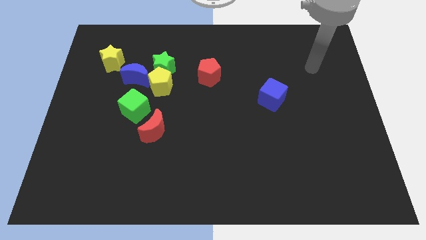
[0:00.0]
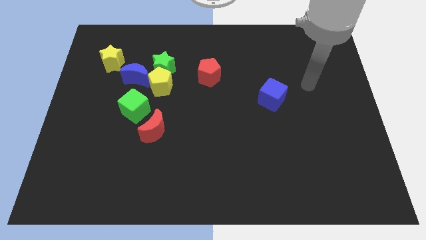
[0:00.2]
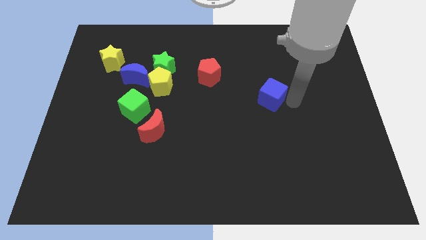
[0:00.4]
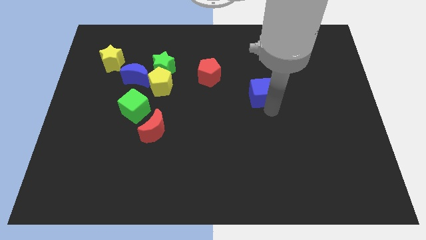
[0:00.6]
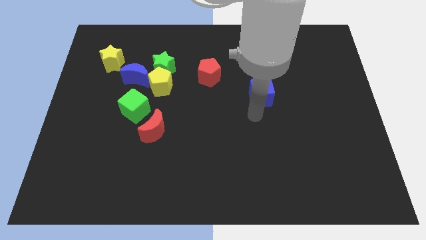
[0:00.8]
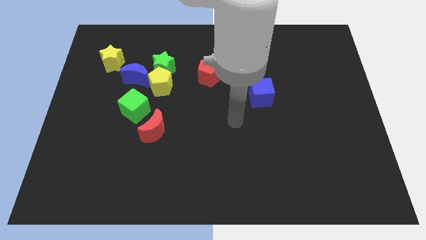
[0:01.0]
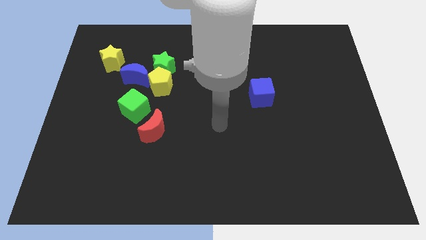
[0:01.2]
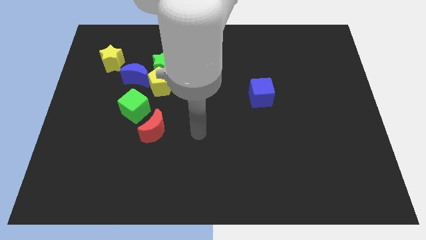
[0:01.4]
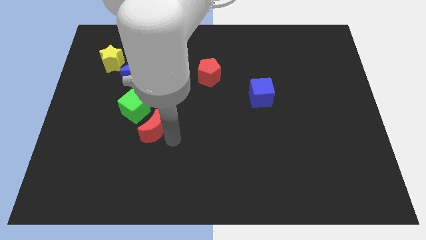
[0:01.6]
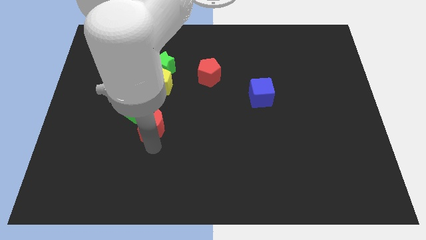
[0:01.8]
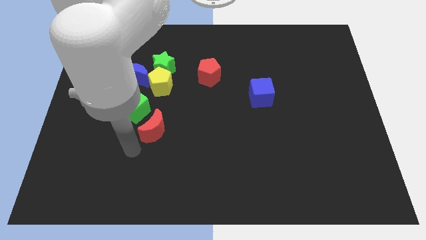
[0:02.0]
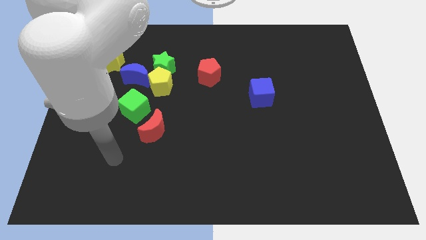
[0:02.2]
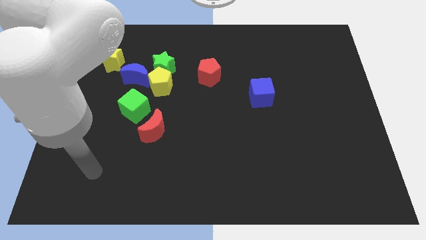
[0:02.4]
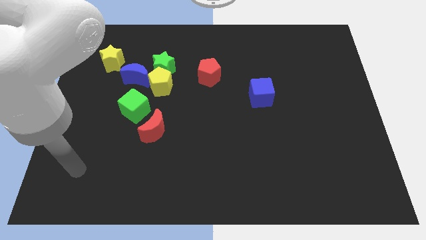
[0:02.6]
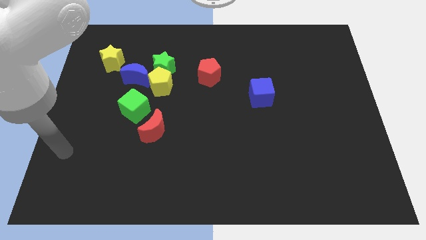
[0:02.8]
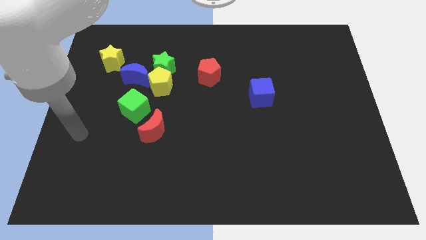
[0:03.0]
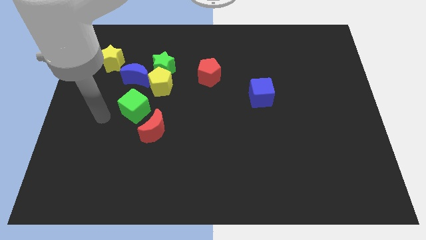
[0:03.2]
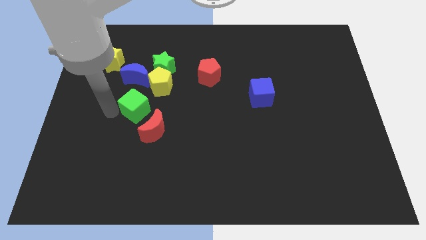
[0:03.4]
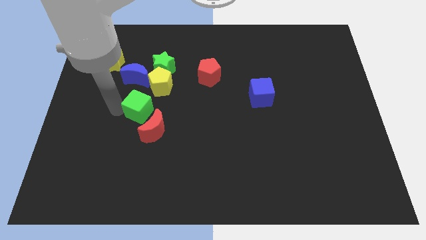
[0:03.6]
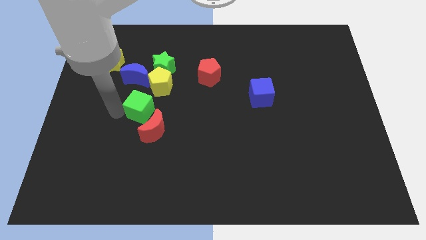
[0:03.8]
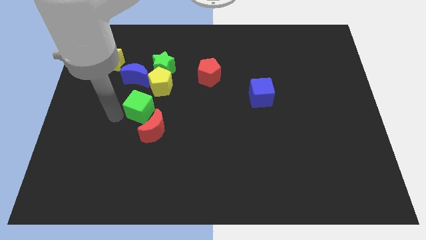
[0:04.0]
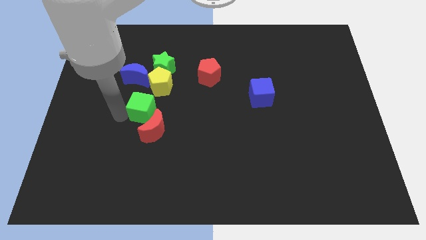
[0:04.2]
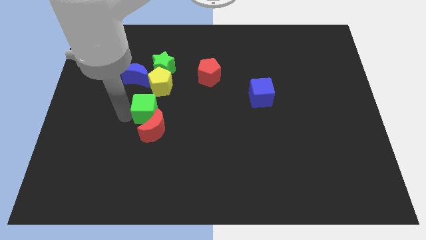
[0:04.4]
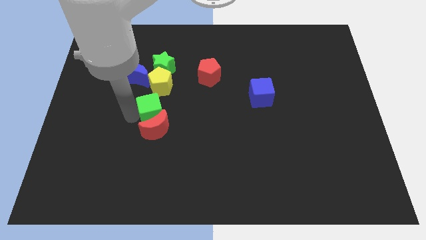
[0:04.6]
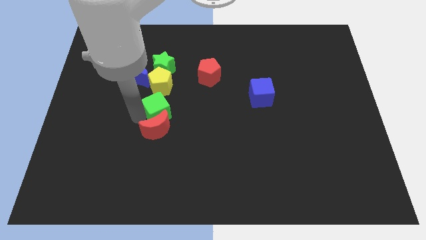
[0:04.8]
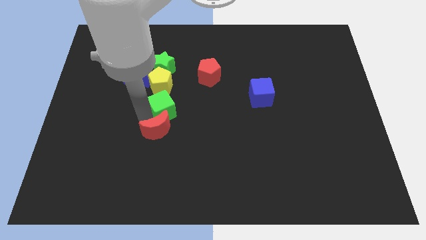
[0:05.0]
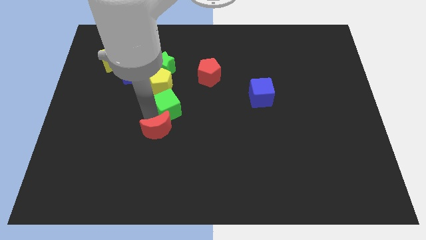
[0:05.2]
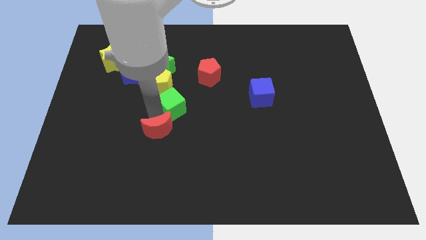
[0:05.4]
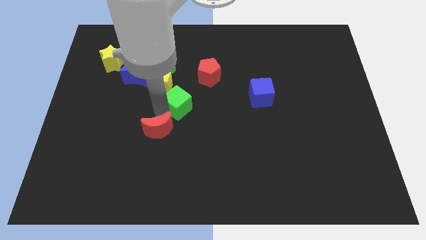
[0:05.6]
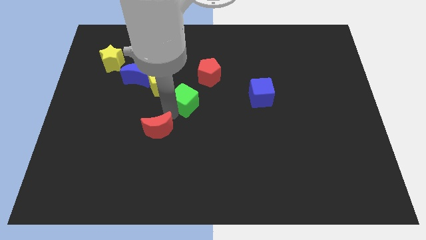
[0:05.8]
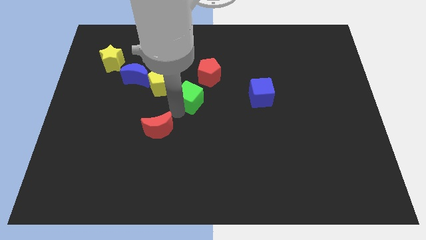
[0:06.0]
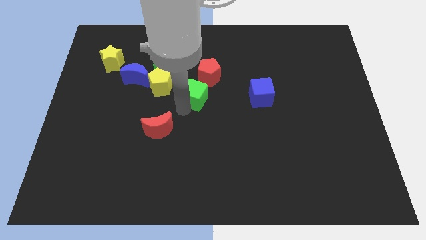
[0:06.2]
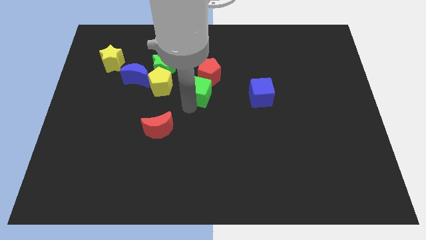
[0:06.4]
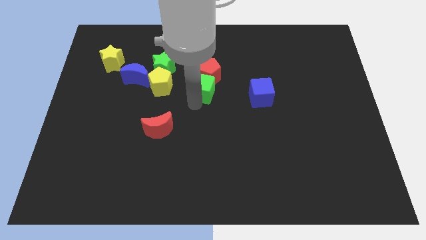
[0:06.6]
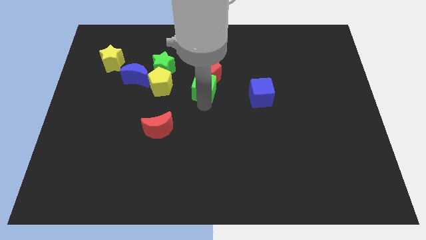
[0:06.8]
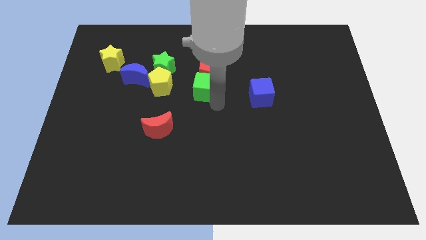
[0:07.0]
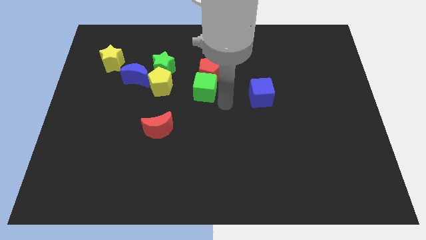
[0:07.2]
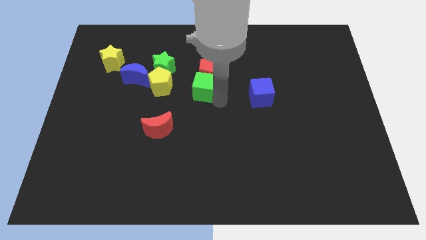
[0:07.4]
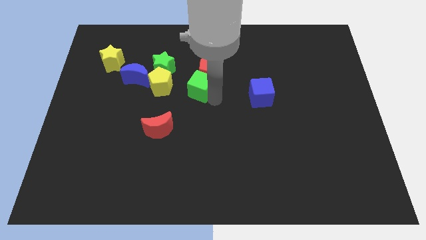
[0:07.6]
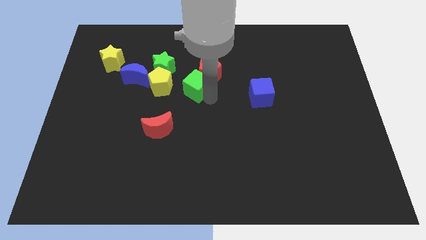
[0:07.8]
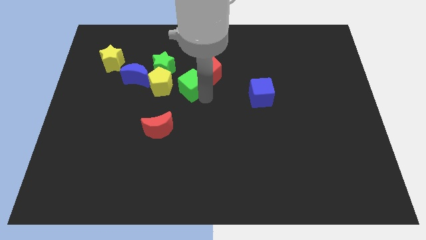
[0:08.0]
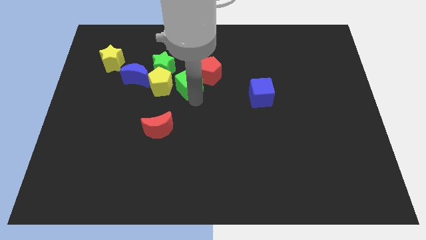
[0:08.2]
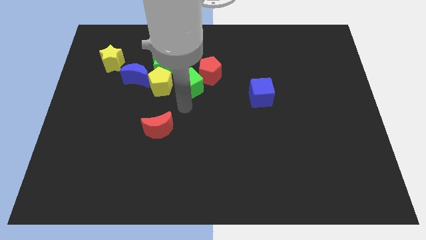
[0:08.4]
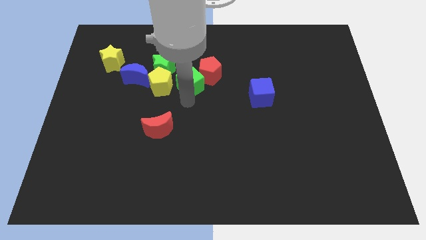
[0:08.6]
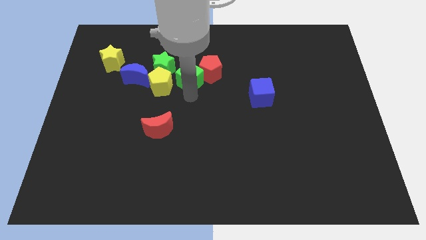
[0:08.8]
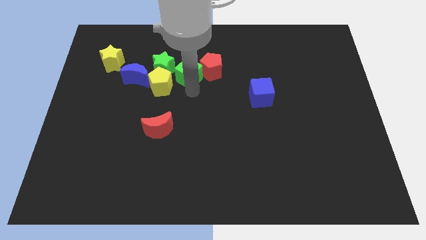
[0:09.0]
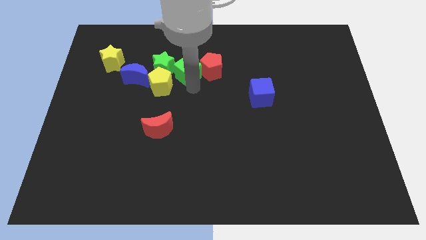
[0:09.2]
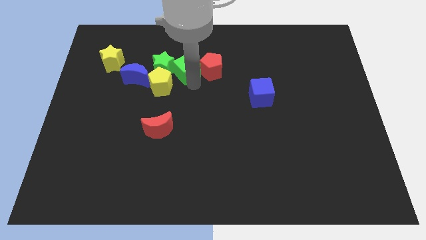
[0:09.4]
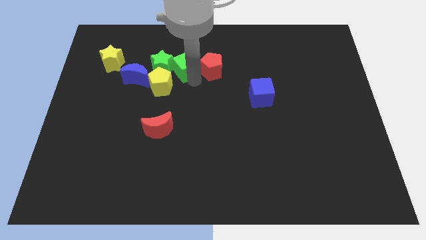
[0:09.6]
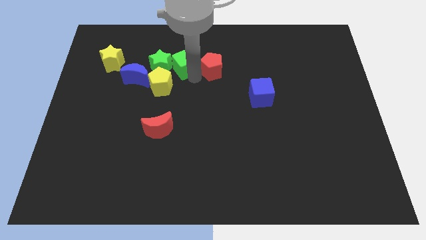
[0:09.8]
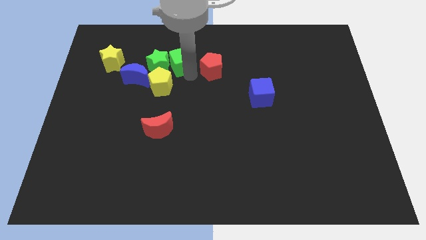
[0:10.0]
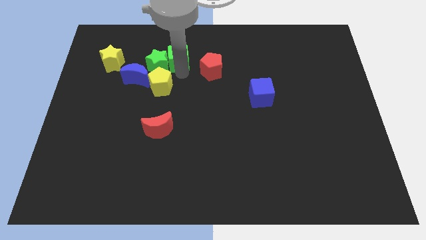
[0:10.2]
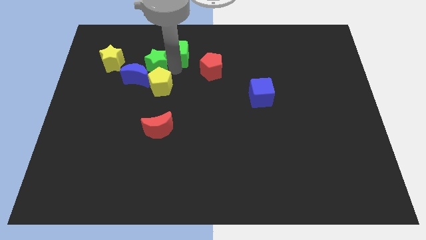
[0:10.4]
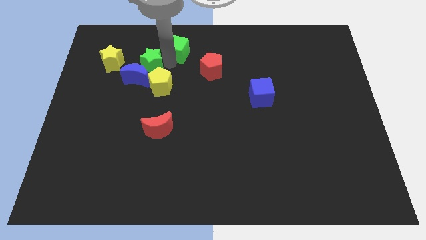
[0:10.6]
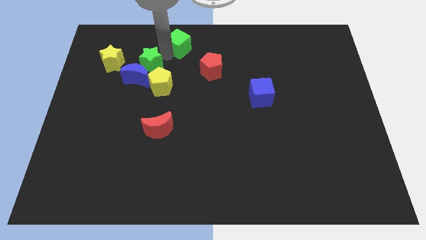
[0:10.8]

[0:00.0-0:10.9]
put the green cube to the top

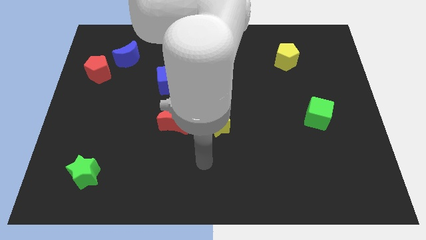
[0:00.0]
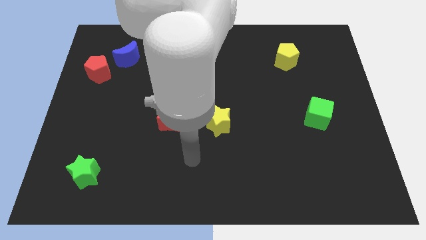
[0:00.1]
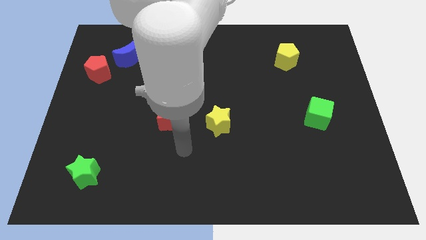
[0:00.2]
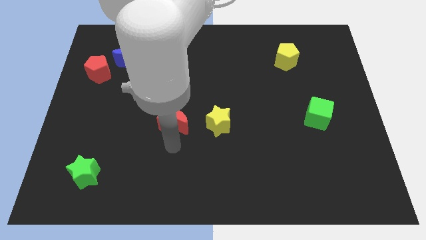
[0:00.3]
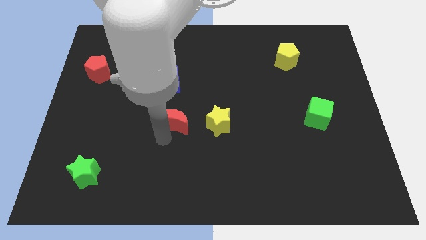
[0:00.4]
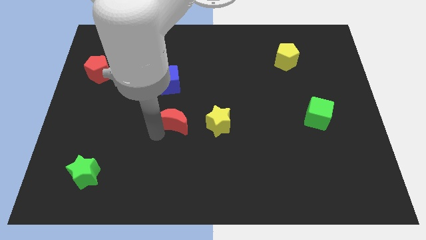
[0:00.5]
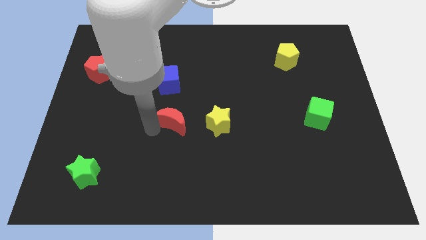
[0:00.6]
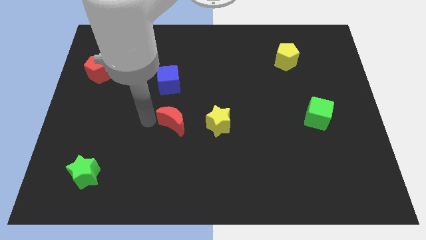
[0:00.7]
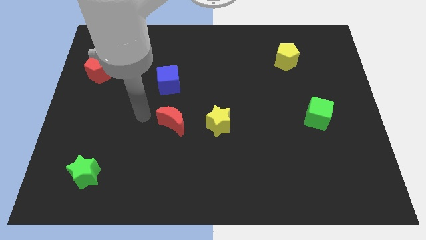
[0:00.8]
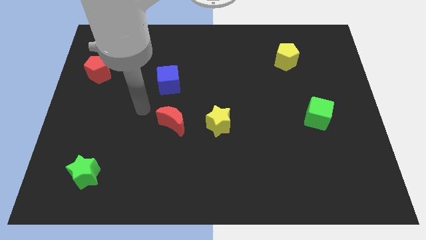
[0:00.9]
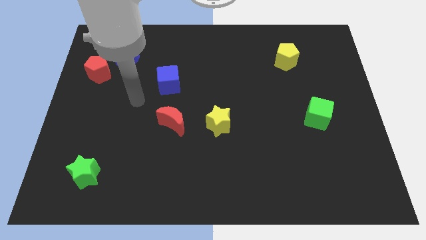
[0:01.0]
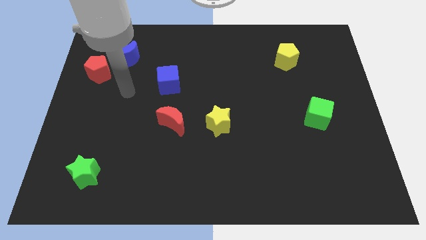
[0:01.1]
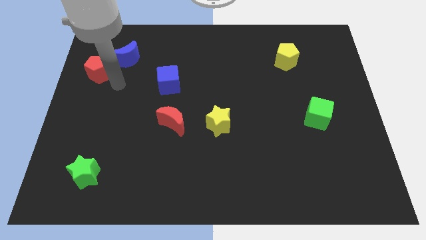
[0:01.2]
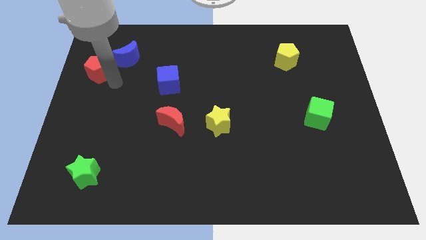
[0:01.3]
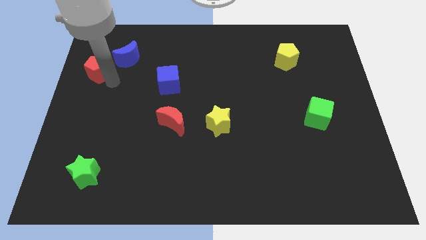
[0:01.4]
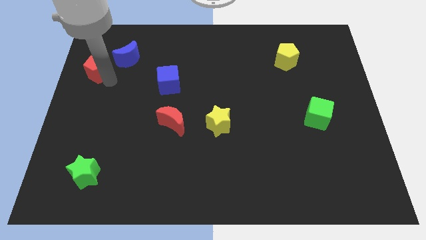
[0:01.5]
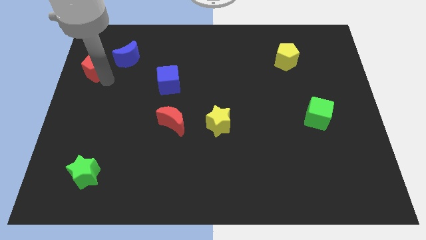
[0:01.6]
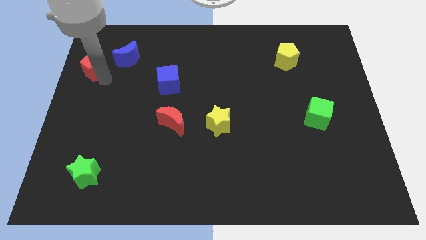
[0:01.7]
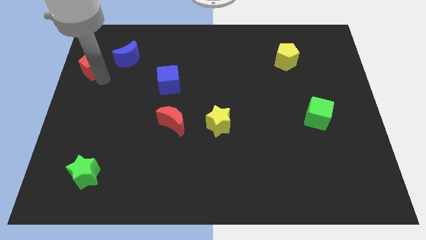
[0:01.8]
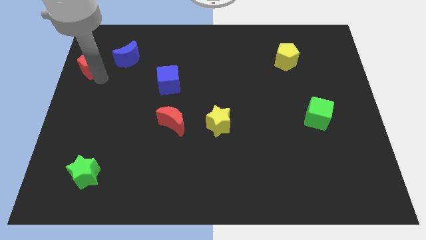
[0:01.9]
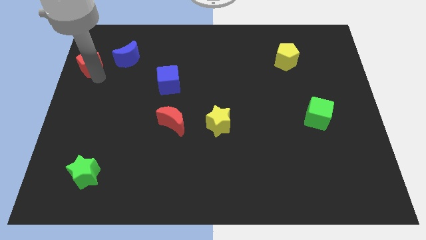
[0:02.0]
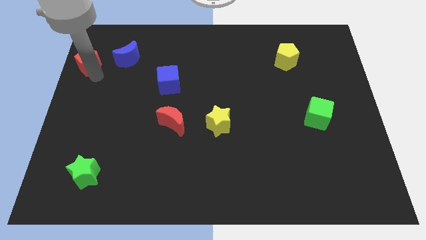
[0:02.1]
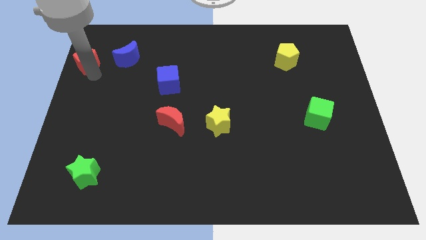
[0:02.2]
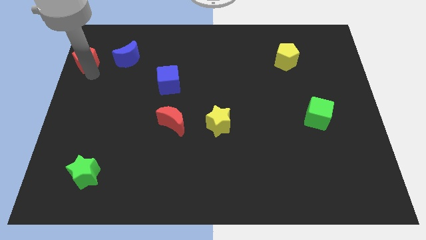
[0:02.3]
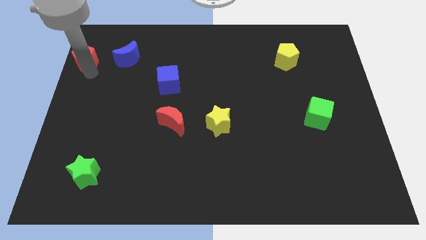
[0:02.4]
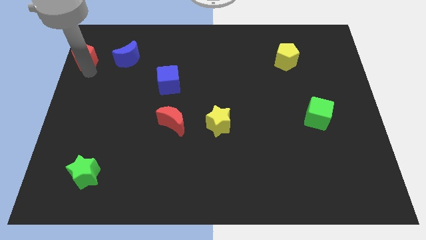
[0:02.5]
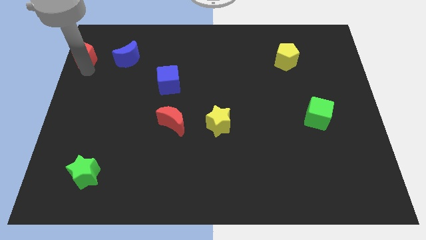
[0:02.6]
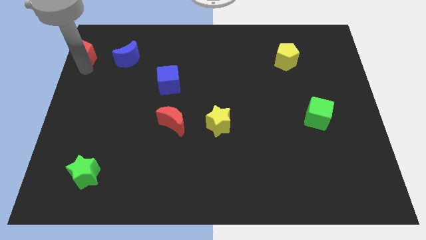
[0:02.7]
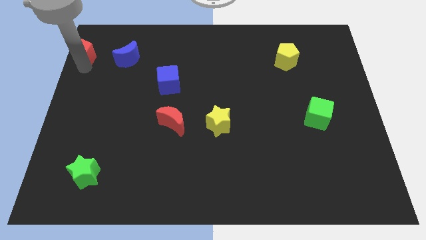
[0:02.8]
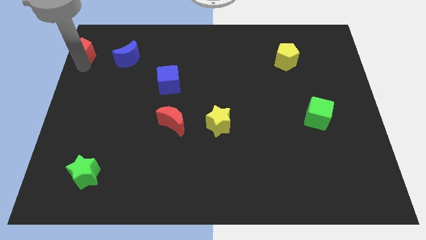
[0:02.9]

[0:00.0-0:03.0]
slide the red pentagon to the top left of the board
